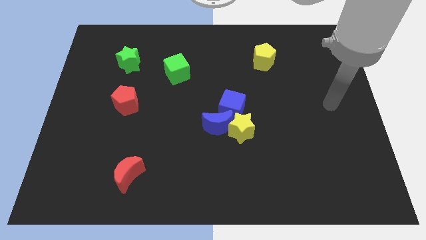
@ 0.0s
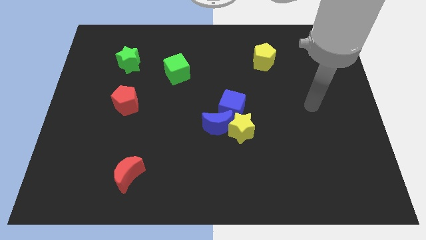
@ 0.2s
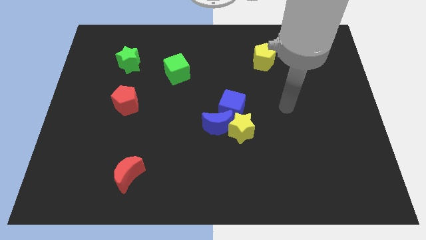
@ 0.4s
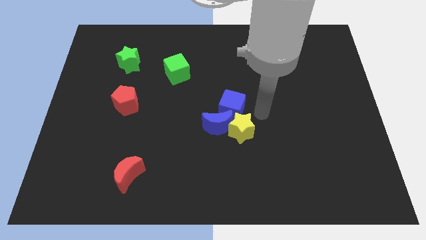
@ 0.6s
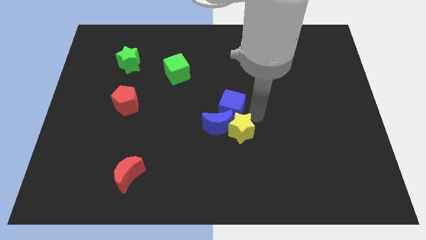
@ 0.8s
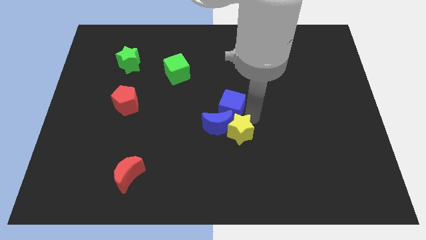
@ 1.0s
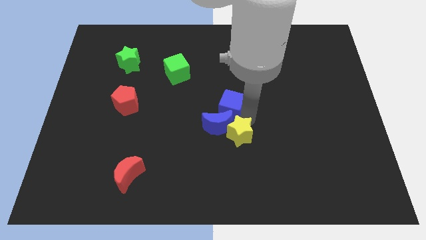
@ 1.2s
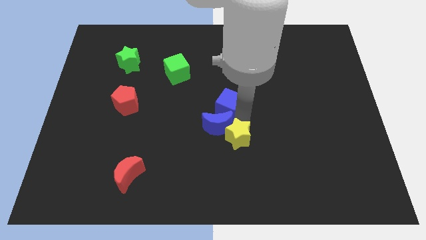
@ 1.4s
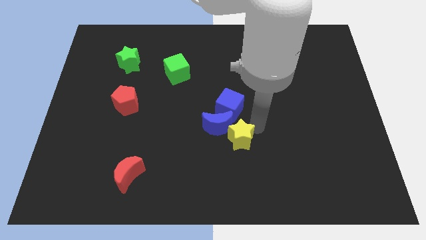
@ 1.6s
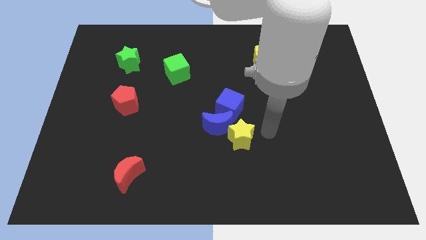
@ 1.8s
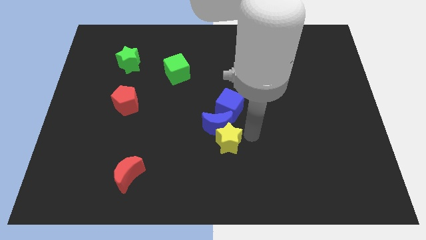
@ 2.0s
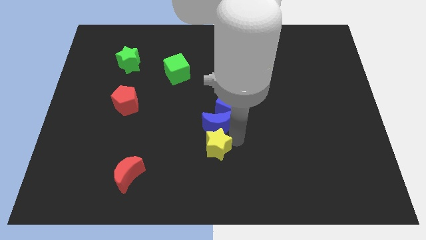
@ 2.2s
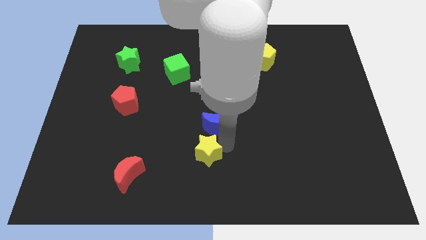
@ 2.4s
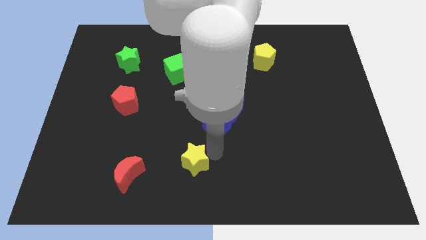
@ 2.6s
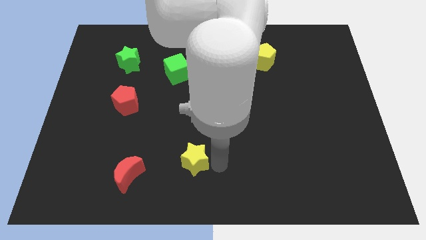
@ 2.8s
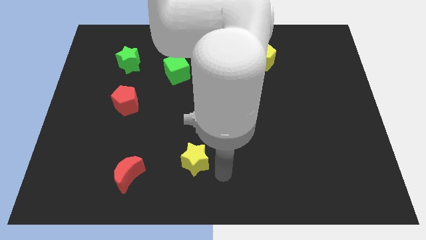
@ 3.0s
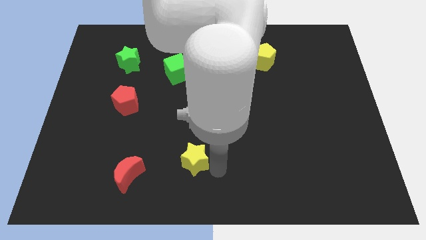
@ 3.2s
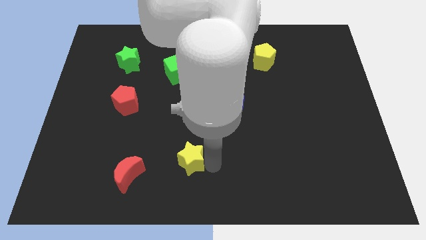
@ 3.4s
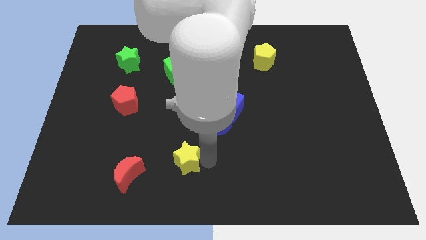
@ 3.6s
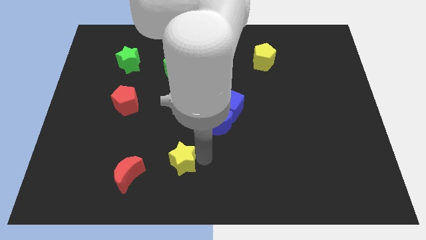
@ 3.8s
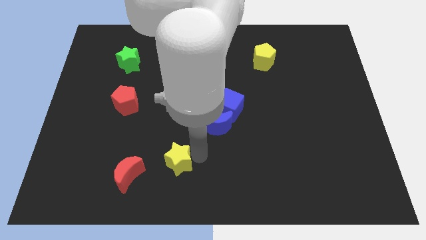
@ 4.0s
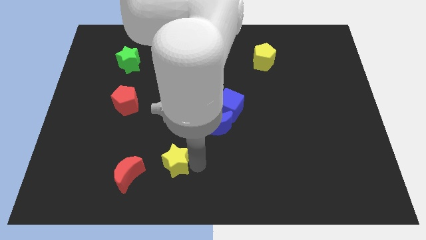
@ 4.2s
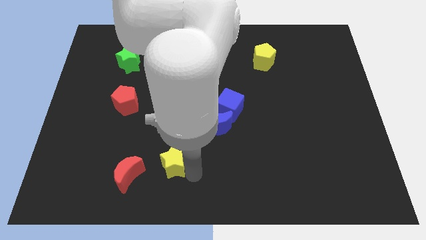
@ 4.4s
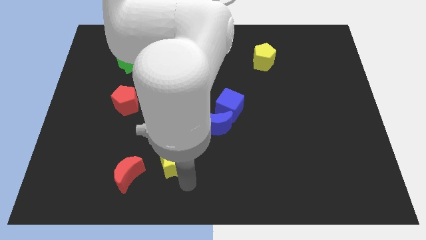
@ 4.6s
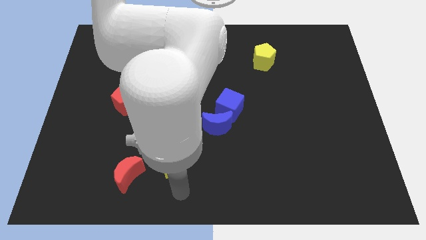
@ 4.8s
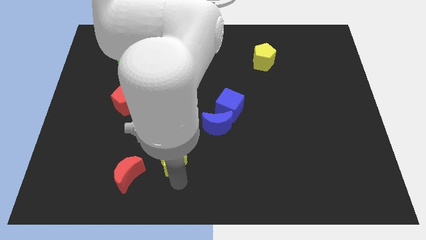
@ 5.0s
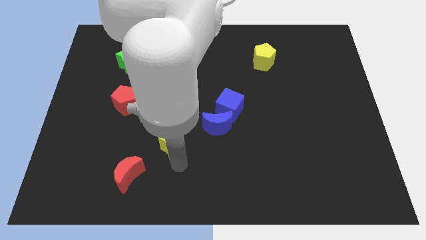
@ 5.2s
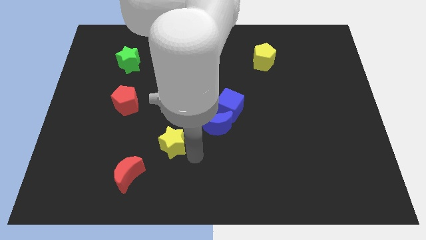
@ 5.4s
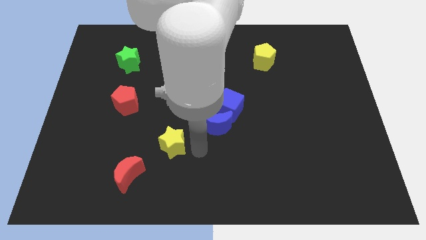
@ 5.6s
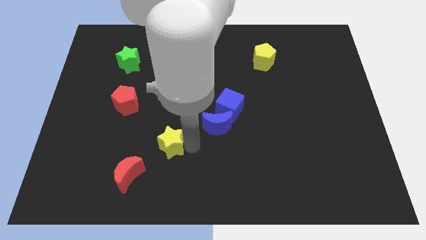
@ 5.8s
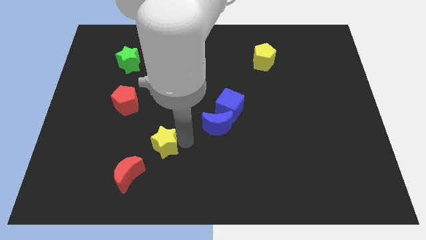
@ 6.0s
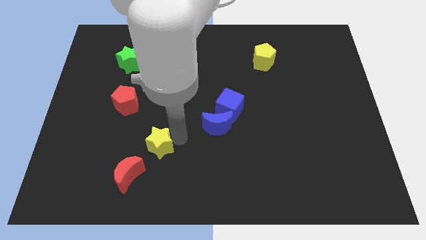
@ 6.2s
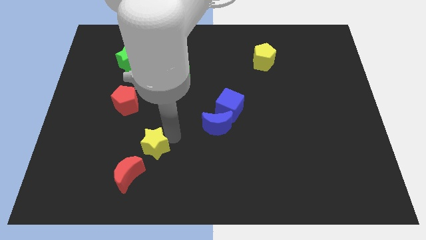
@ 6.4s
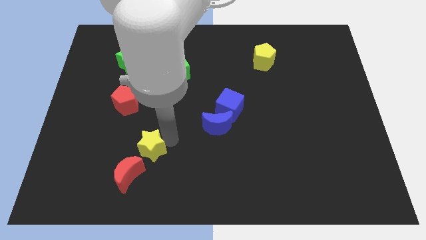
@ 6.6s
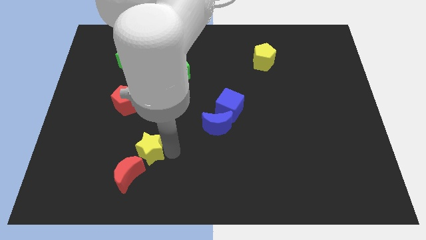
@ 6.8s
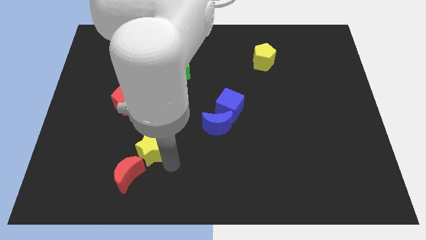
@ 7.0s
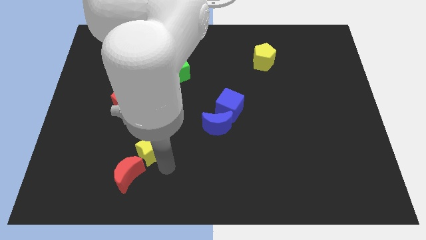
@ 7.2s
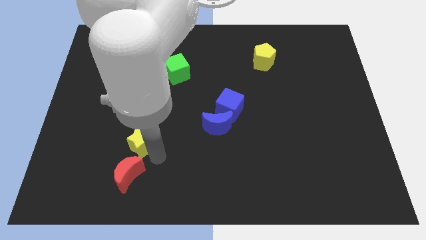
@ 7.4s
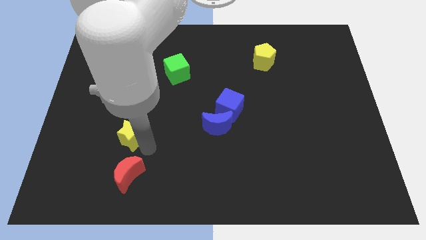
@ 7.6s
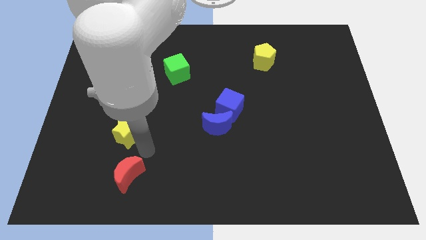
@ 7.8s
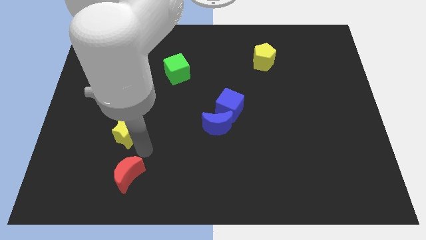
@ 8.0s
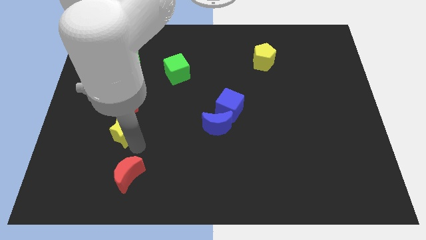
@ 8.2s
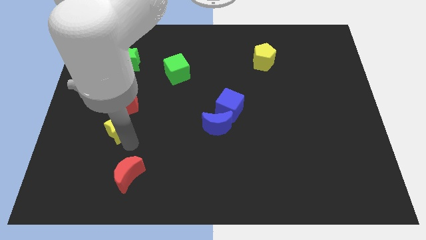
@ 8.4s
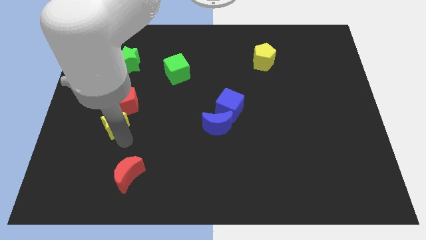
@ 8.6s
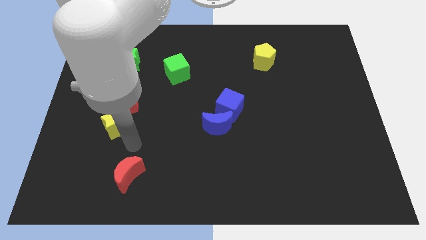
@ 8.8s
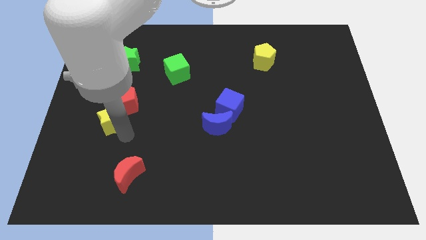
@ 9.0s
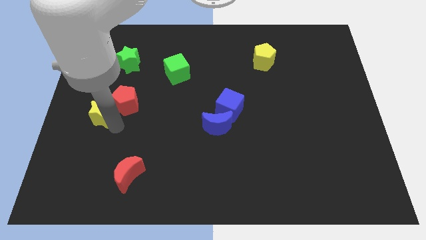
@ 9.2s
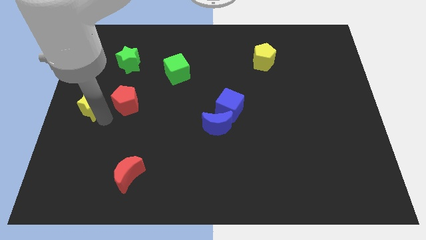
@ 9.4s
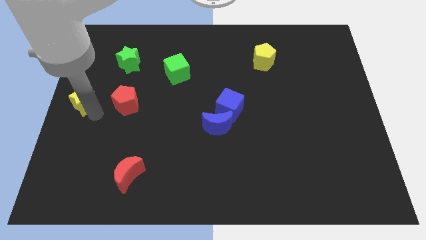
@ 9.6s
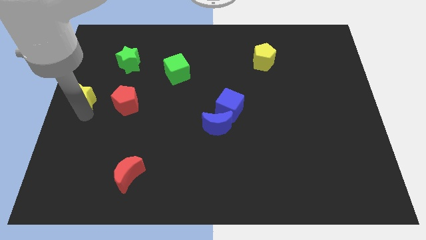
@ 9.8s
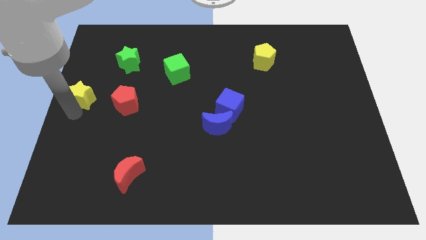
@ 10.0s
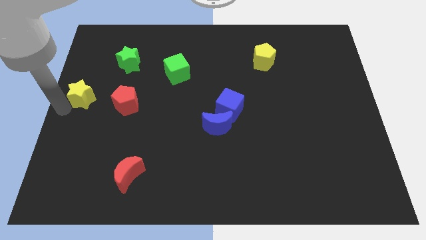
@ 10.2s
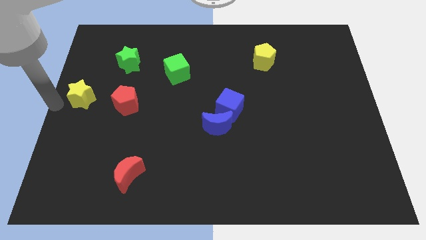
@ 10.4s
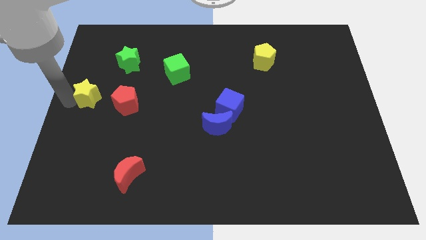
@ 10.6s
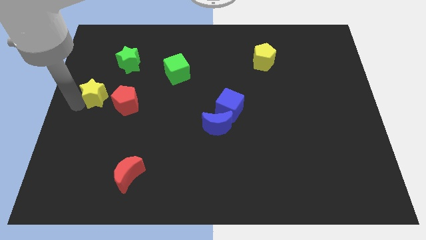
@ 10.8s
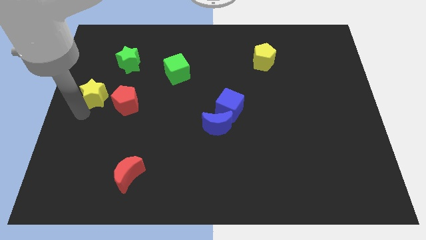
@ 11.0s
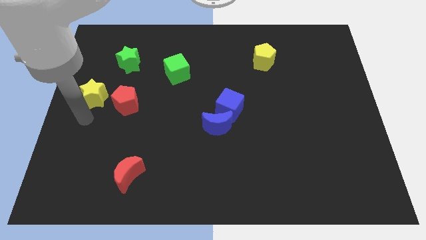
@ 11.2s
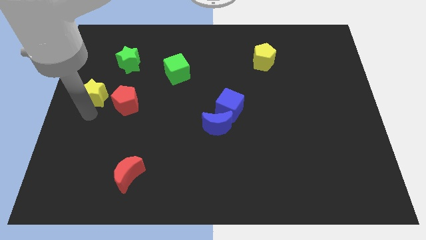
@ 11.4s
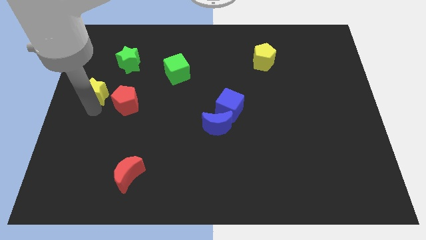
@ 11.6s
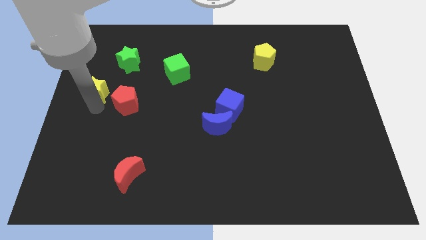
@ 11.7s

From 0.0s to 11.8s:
move the yellow star to the bottom left side of the green star

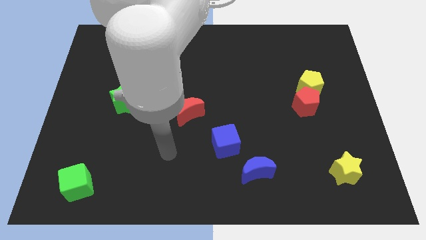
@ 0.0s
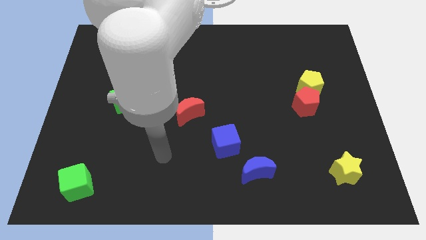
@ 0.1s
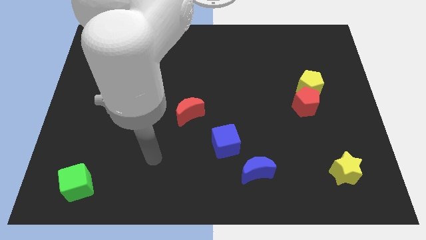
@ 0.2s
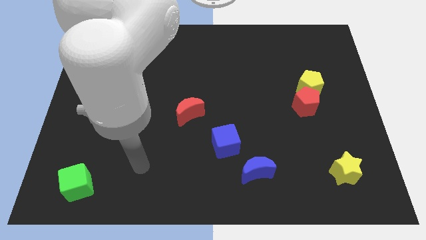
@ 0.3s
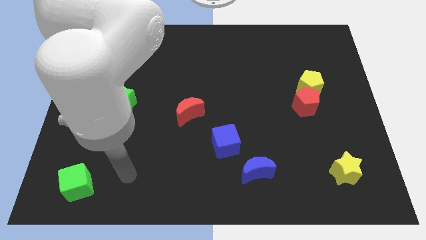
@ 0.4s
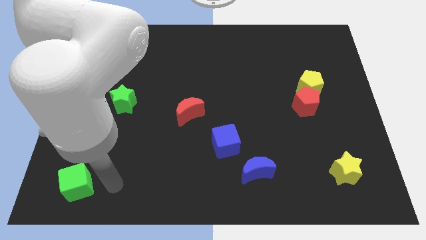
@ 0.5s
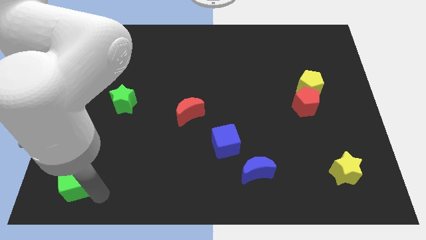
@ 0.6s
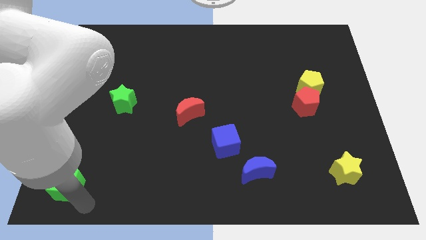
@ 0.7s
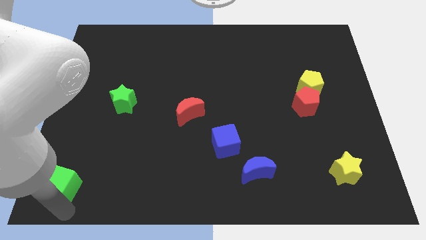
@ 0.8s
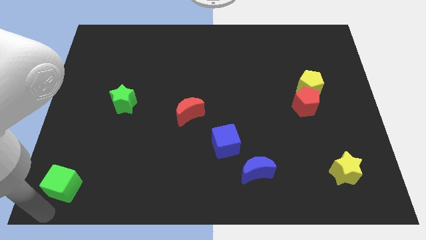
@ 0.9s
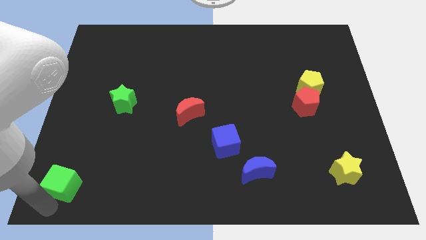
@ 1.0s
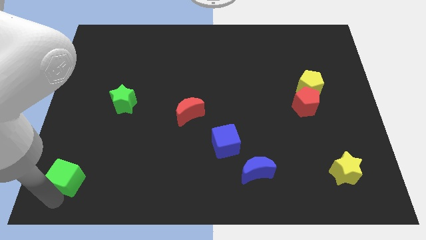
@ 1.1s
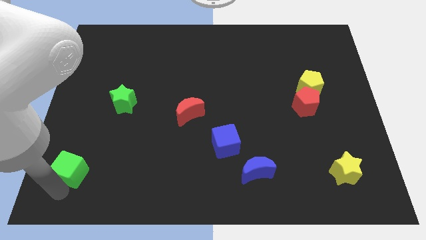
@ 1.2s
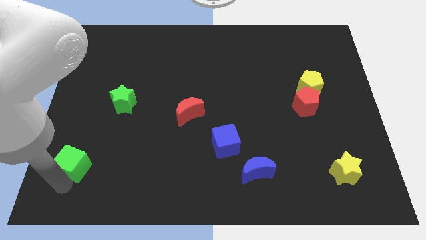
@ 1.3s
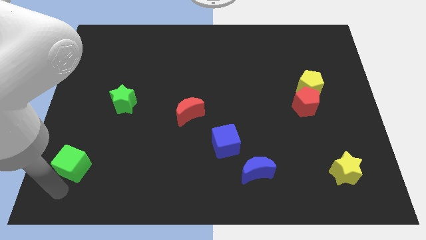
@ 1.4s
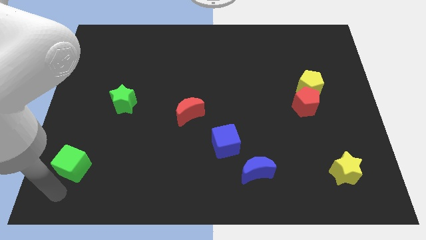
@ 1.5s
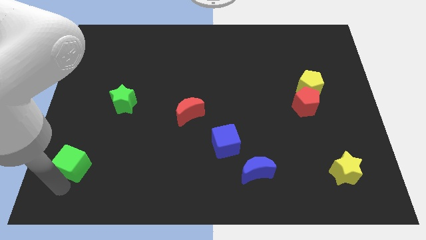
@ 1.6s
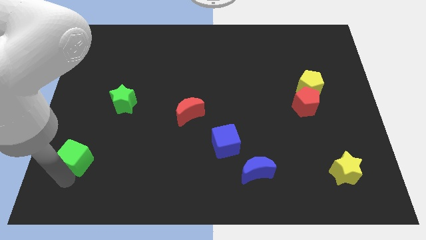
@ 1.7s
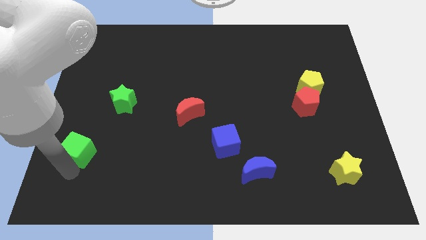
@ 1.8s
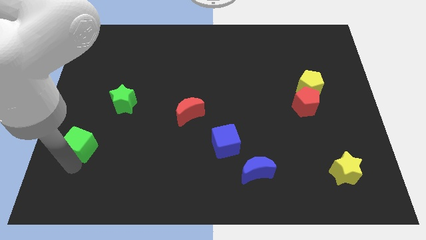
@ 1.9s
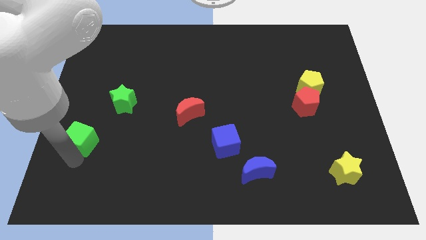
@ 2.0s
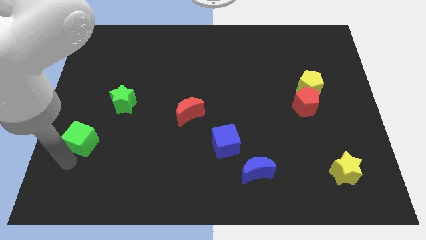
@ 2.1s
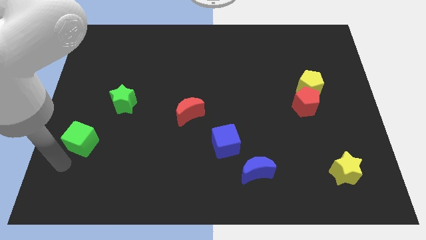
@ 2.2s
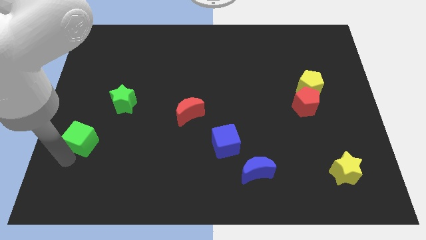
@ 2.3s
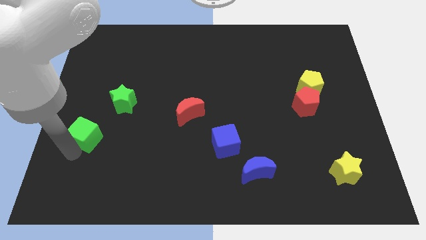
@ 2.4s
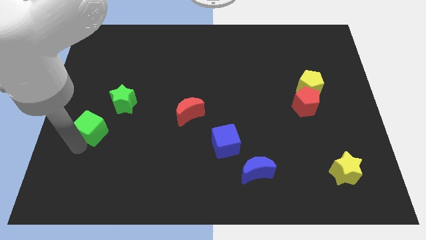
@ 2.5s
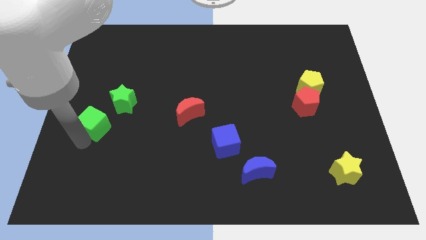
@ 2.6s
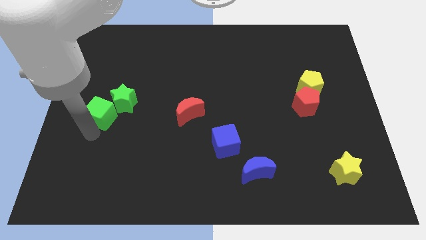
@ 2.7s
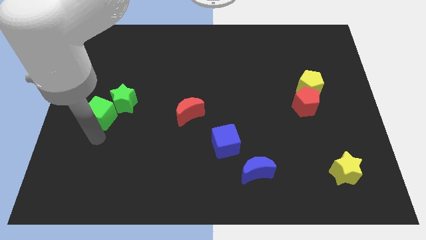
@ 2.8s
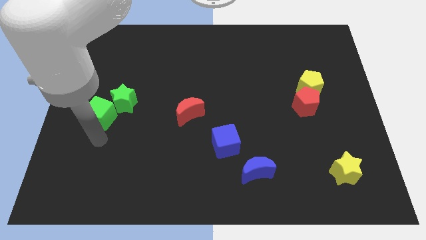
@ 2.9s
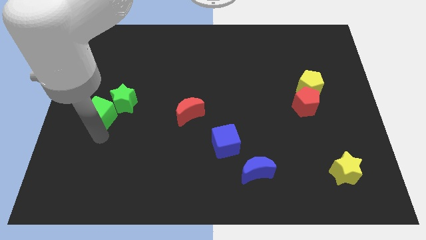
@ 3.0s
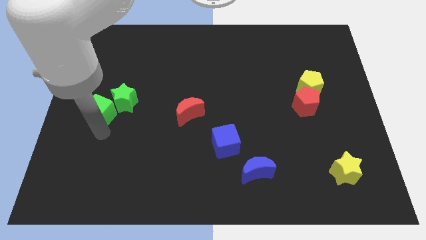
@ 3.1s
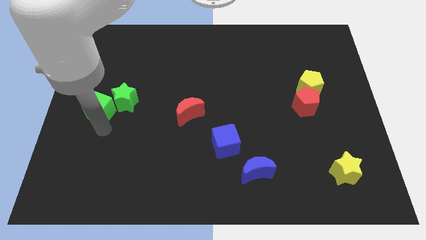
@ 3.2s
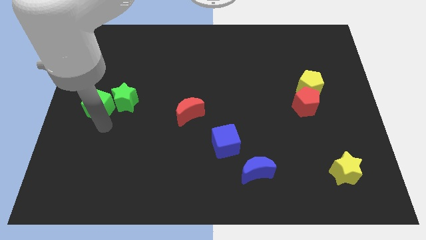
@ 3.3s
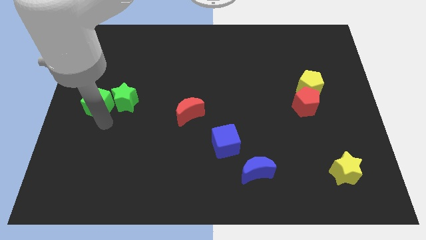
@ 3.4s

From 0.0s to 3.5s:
push the green cube diagonally up and to the left of the green star
